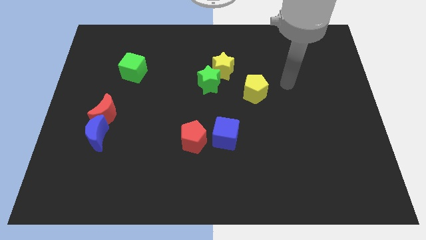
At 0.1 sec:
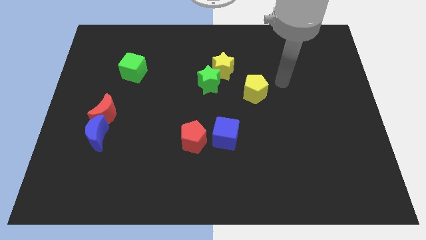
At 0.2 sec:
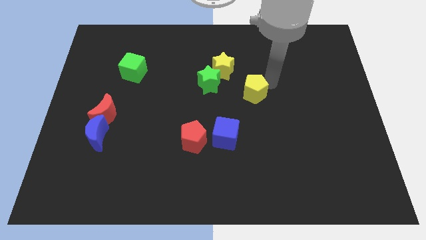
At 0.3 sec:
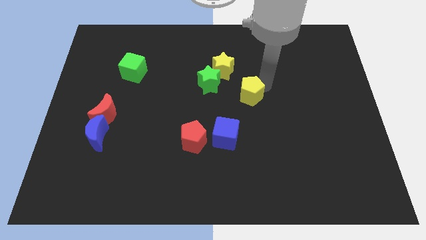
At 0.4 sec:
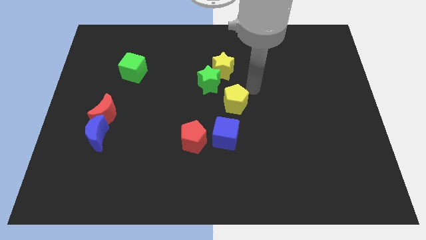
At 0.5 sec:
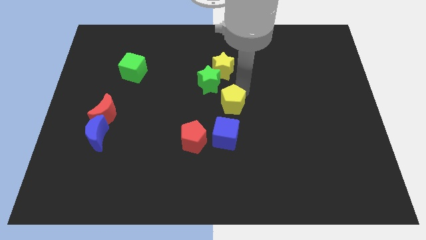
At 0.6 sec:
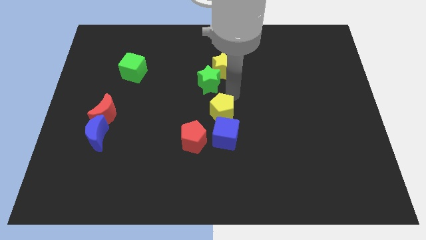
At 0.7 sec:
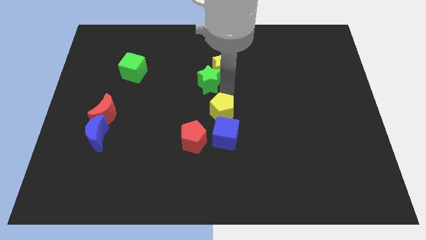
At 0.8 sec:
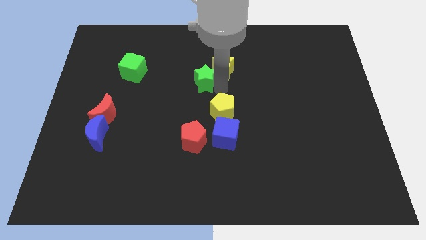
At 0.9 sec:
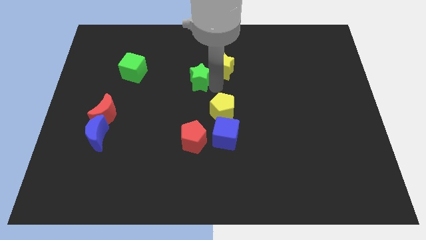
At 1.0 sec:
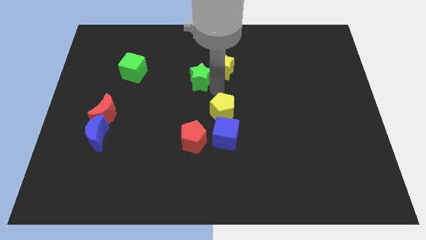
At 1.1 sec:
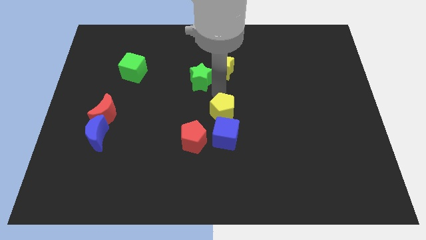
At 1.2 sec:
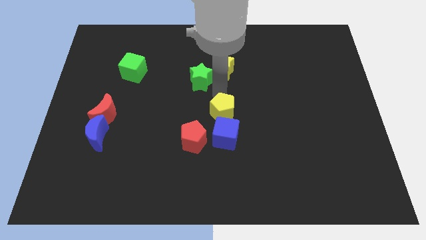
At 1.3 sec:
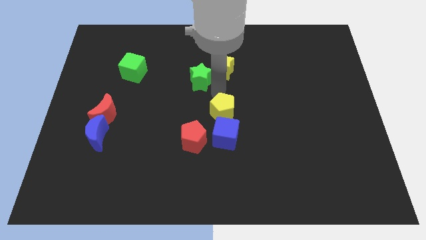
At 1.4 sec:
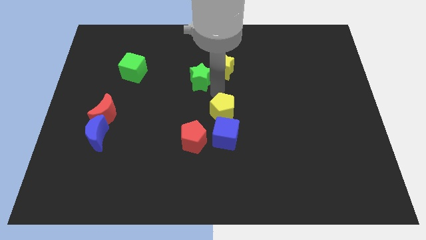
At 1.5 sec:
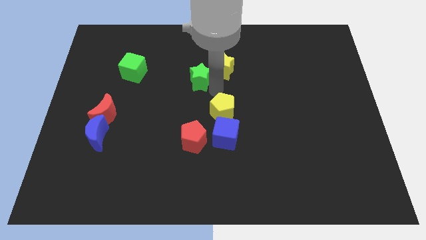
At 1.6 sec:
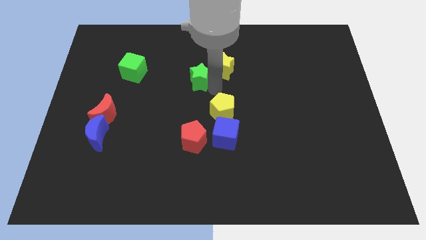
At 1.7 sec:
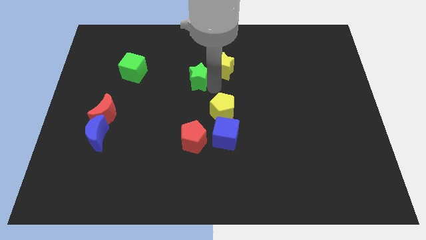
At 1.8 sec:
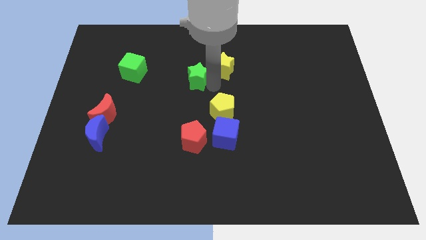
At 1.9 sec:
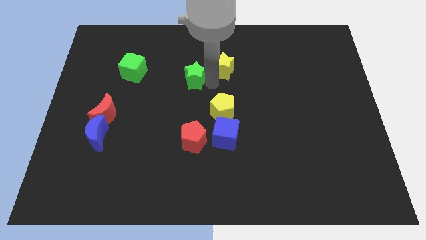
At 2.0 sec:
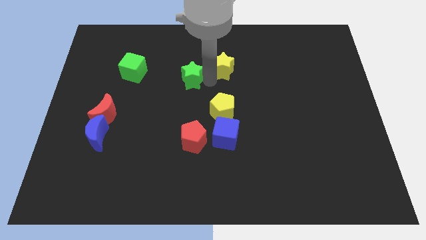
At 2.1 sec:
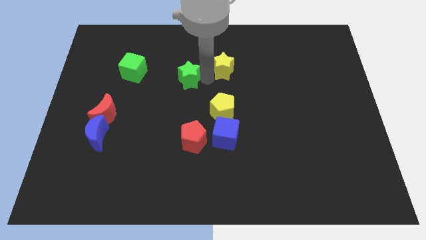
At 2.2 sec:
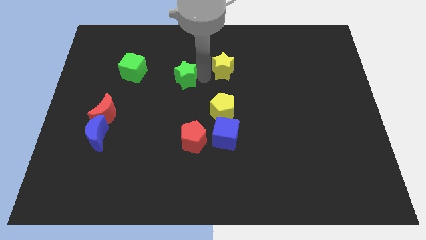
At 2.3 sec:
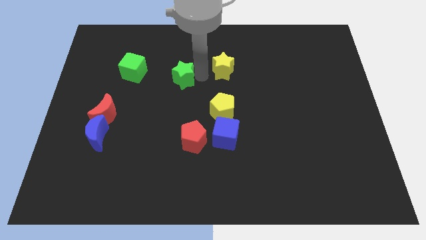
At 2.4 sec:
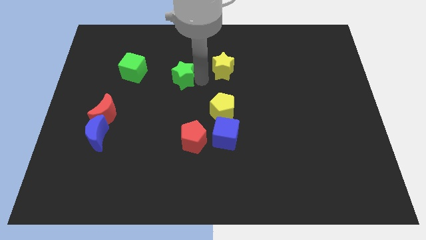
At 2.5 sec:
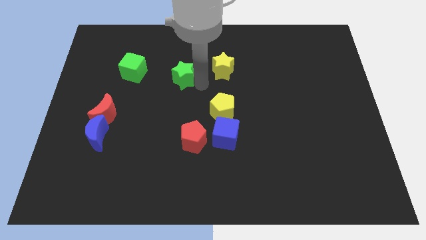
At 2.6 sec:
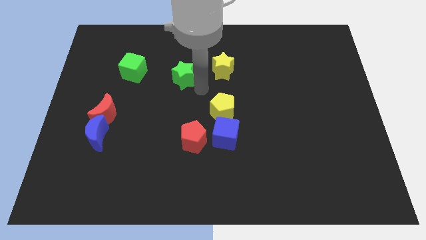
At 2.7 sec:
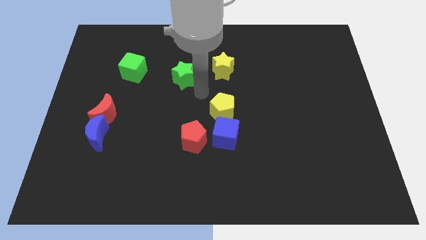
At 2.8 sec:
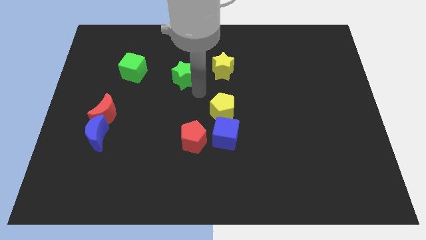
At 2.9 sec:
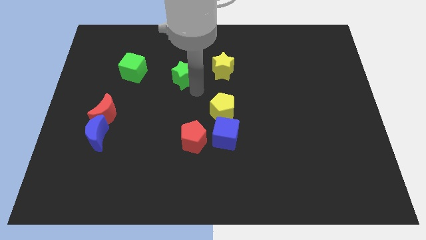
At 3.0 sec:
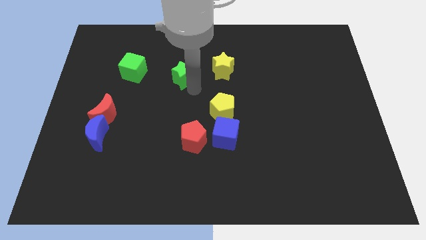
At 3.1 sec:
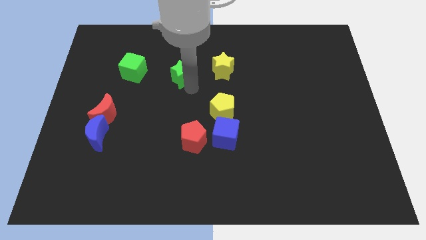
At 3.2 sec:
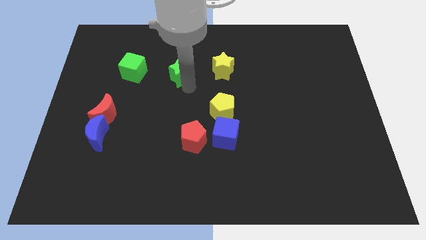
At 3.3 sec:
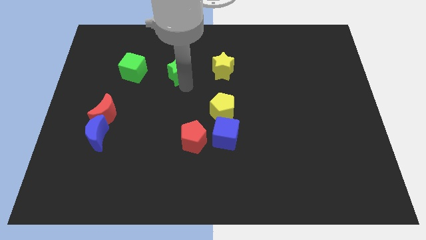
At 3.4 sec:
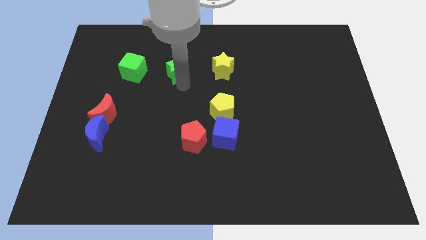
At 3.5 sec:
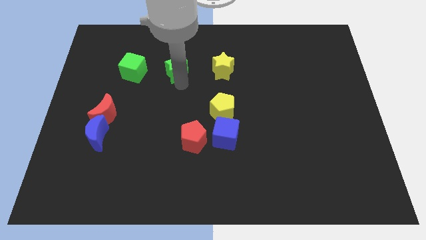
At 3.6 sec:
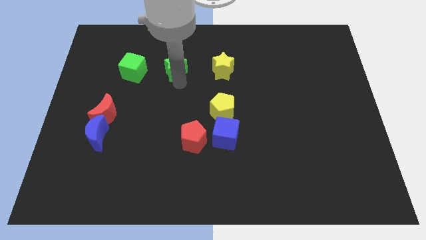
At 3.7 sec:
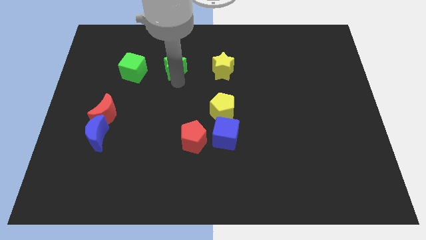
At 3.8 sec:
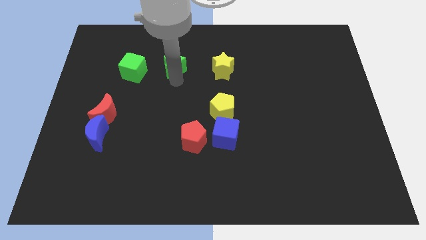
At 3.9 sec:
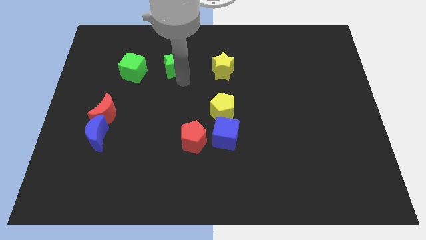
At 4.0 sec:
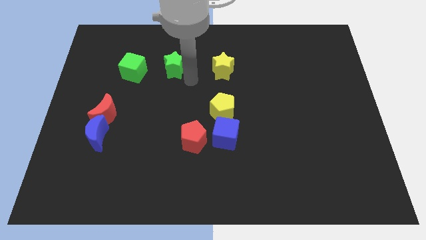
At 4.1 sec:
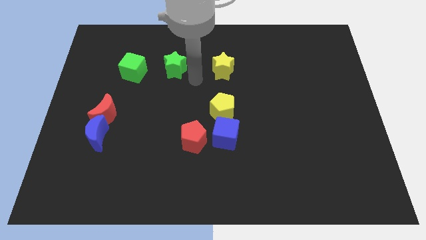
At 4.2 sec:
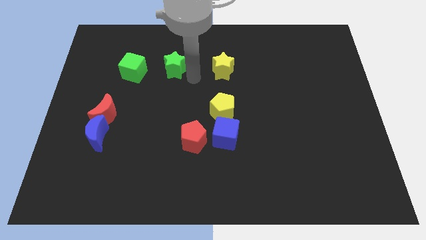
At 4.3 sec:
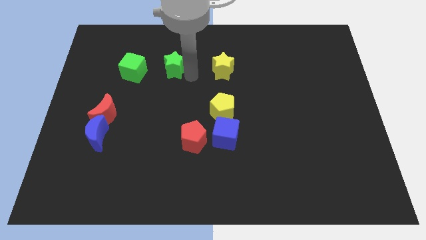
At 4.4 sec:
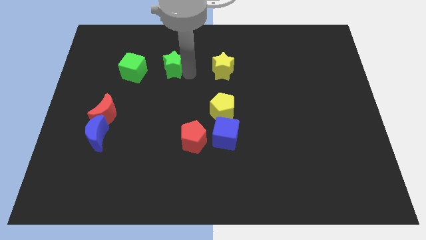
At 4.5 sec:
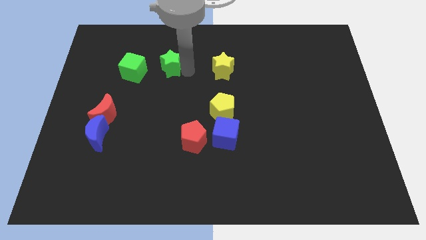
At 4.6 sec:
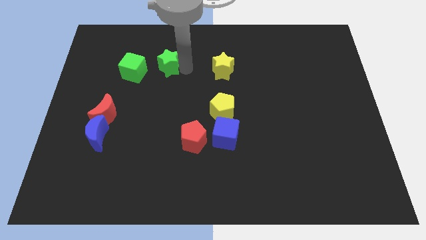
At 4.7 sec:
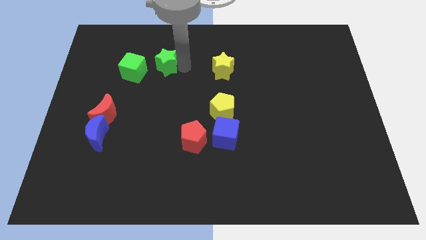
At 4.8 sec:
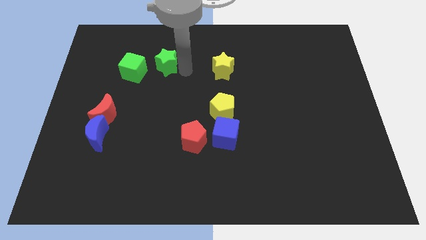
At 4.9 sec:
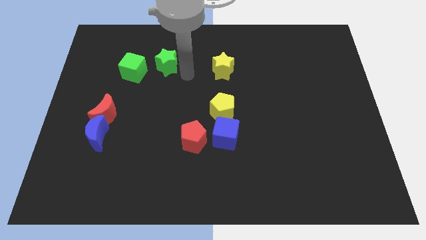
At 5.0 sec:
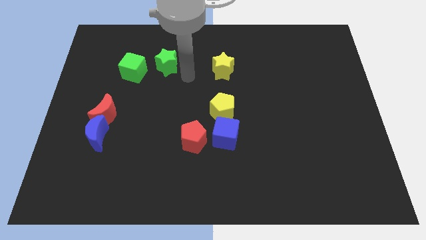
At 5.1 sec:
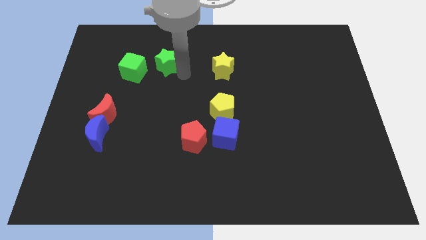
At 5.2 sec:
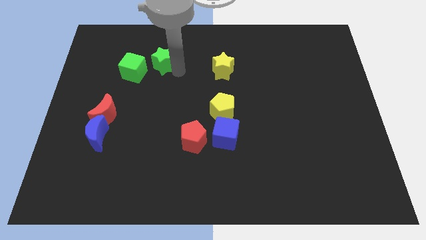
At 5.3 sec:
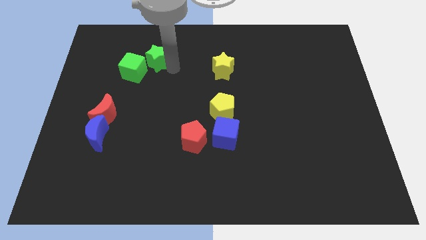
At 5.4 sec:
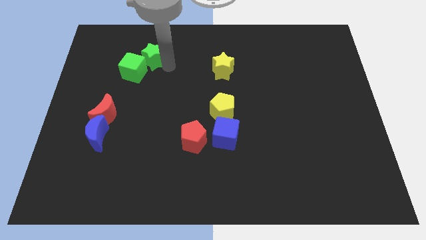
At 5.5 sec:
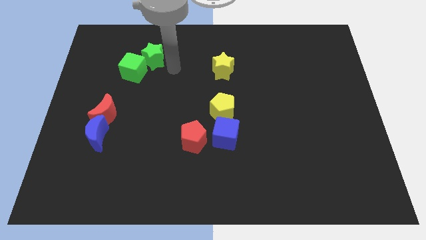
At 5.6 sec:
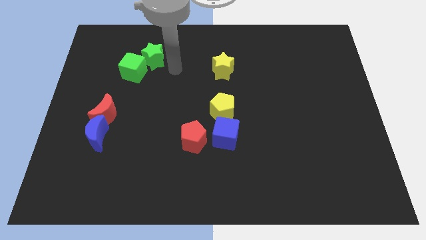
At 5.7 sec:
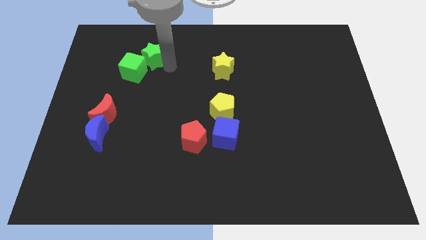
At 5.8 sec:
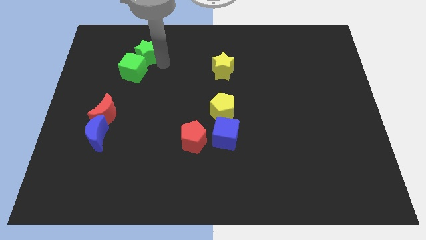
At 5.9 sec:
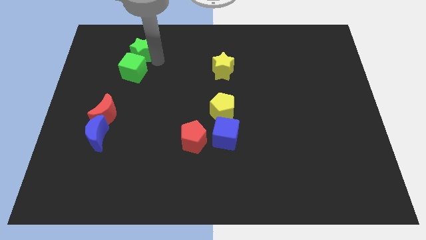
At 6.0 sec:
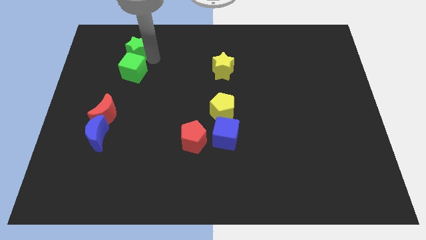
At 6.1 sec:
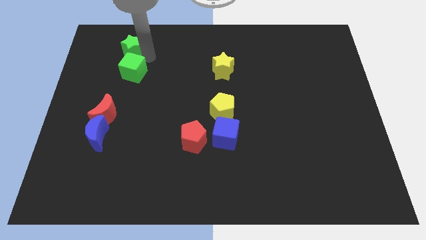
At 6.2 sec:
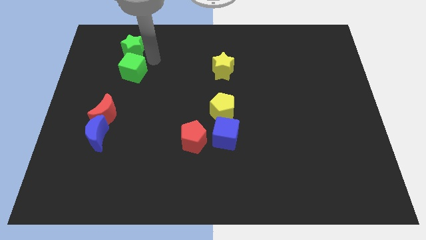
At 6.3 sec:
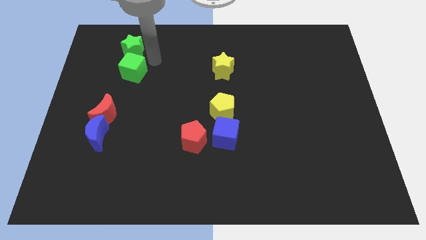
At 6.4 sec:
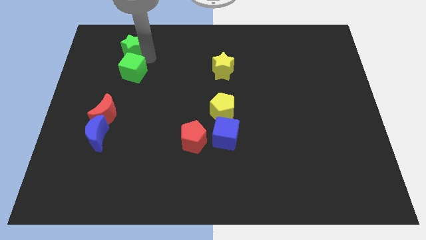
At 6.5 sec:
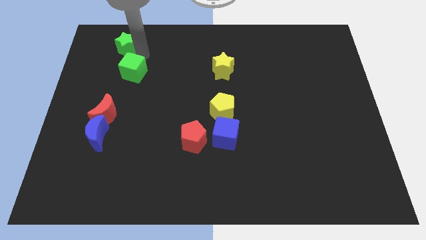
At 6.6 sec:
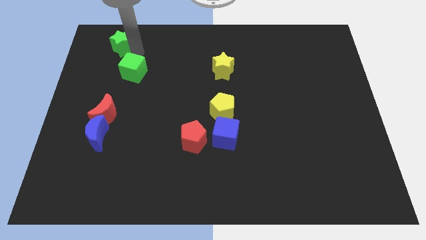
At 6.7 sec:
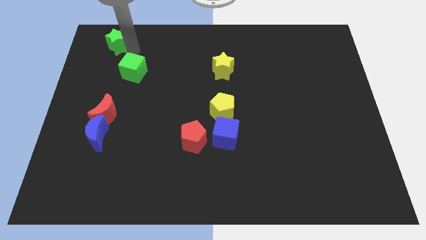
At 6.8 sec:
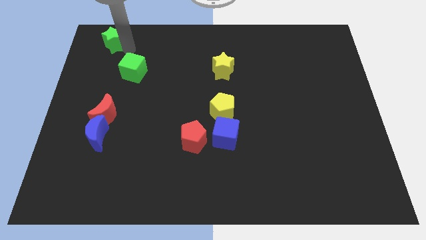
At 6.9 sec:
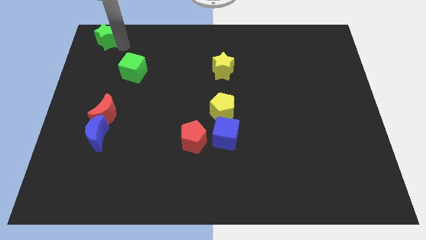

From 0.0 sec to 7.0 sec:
push the green star to the top left corner
